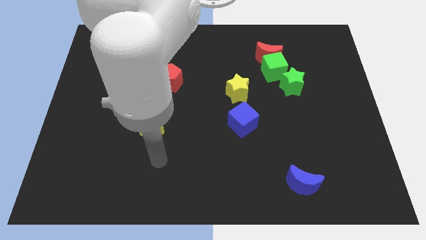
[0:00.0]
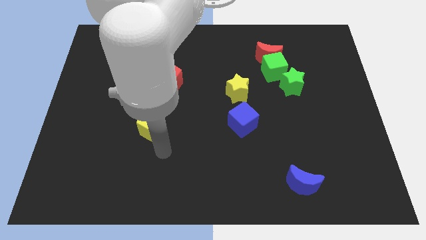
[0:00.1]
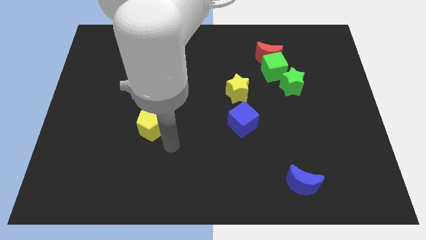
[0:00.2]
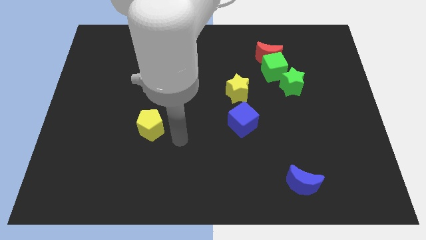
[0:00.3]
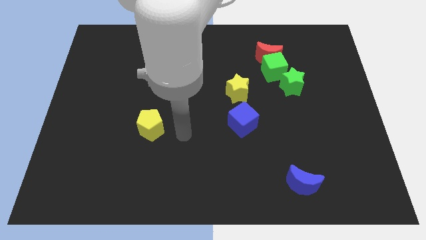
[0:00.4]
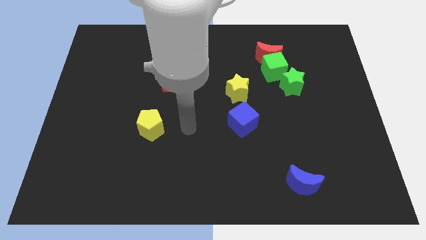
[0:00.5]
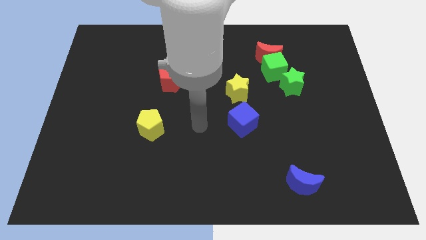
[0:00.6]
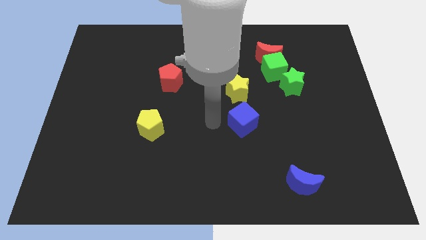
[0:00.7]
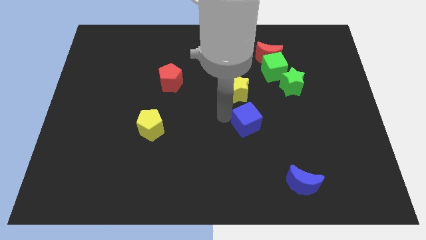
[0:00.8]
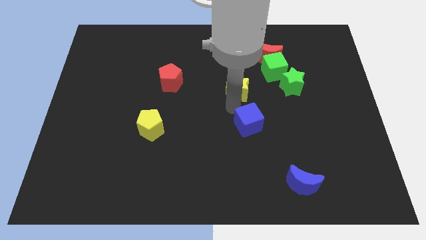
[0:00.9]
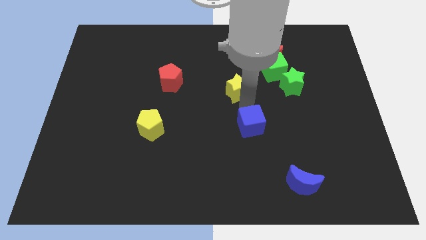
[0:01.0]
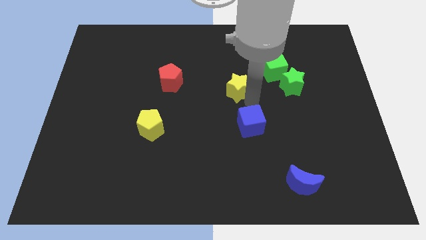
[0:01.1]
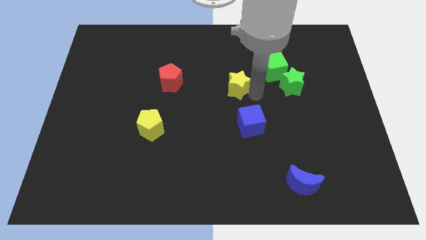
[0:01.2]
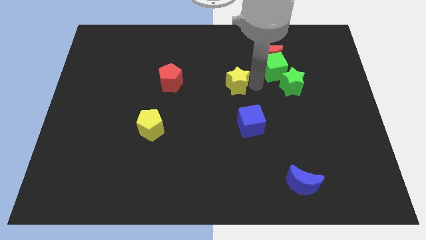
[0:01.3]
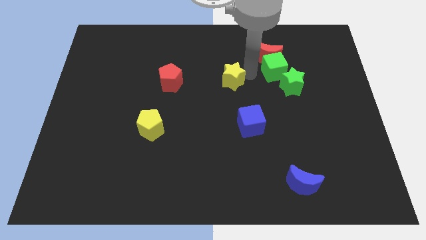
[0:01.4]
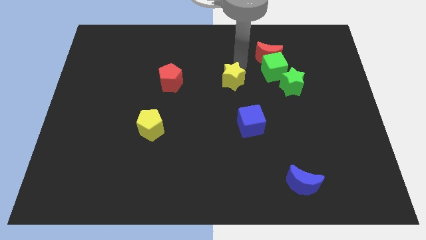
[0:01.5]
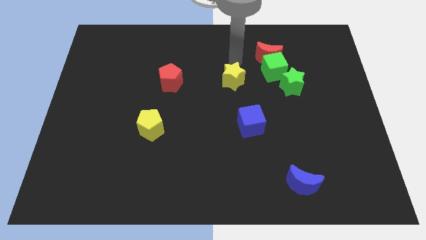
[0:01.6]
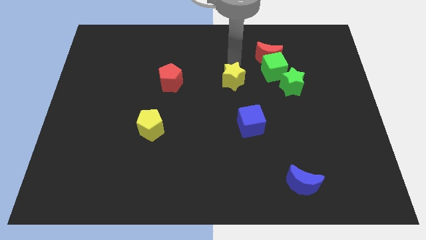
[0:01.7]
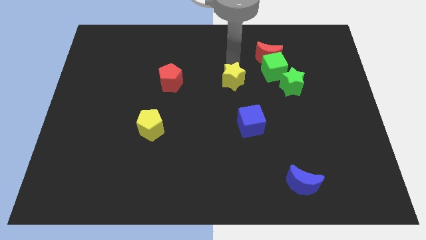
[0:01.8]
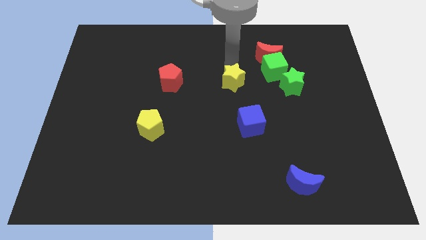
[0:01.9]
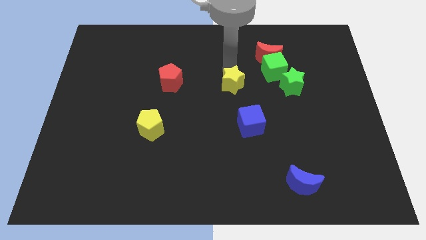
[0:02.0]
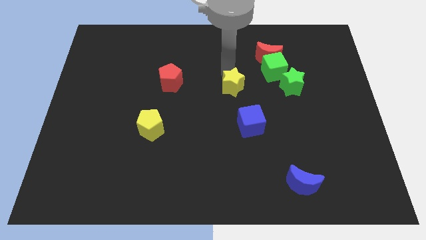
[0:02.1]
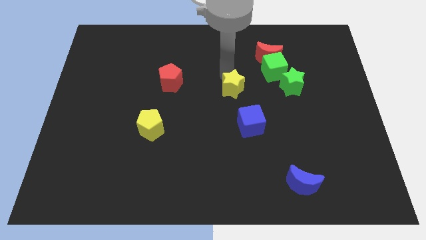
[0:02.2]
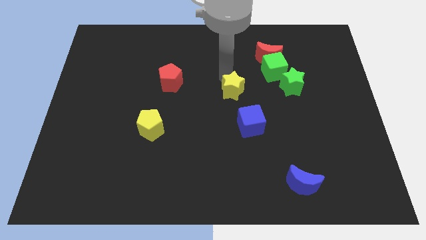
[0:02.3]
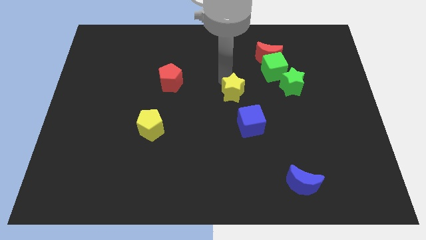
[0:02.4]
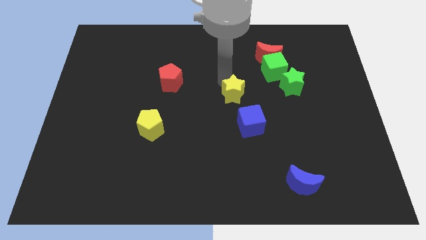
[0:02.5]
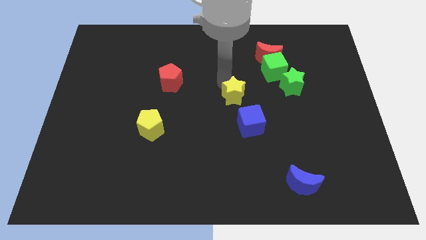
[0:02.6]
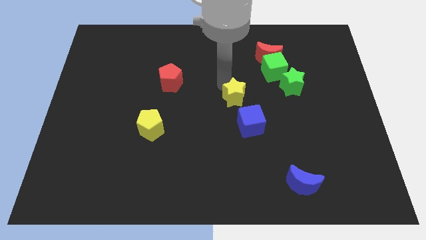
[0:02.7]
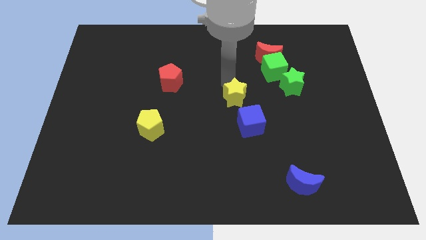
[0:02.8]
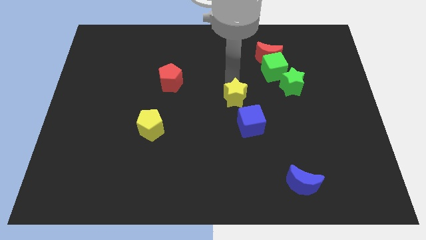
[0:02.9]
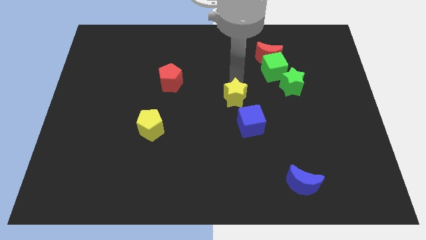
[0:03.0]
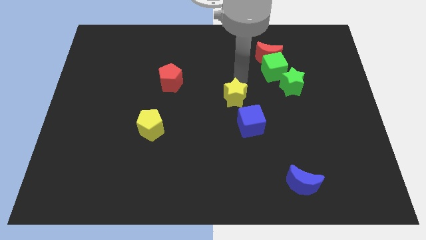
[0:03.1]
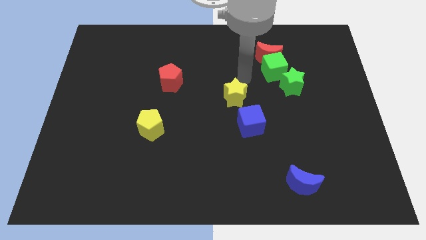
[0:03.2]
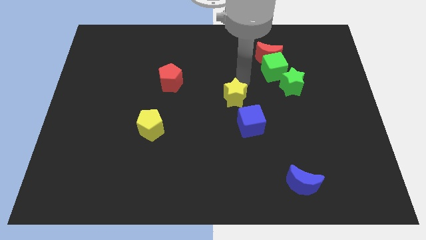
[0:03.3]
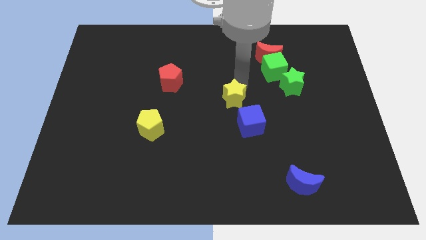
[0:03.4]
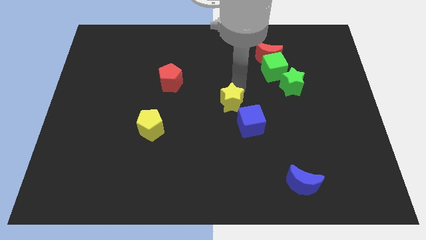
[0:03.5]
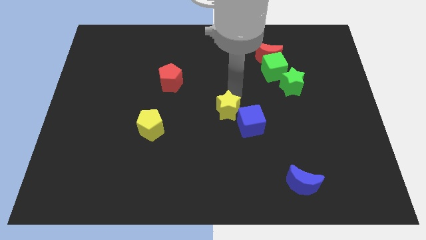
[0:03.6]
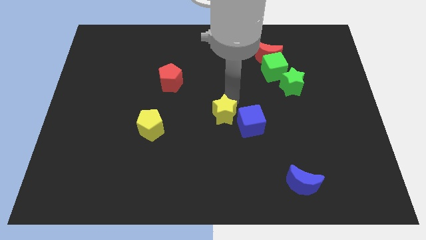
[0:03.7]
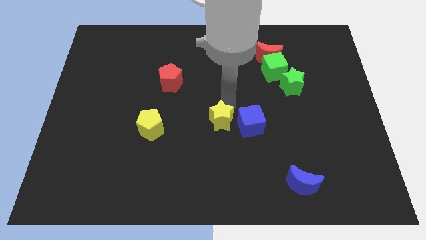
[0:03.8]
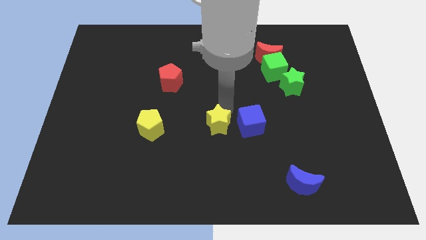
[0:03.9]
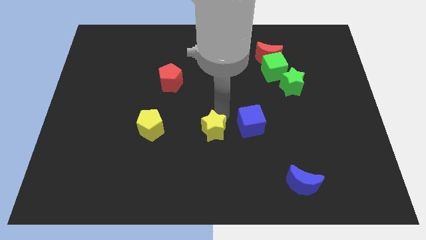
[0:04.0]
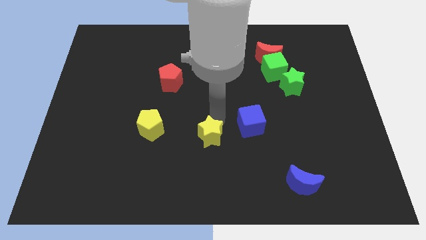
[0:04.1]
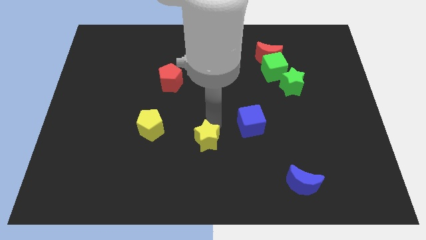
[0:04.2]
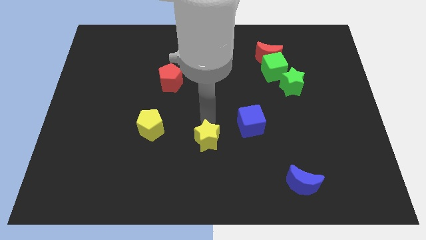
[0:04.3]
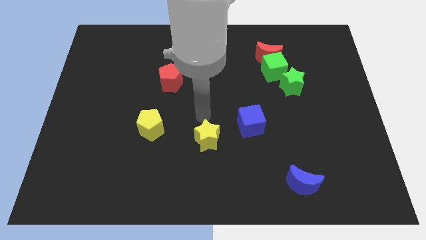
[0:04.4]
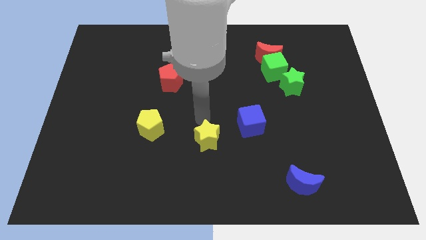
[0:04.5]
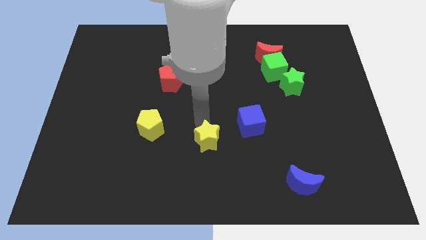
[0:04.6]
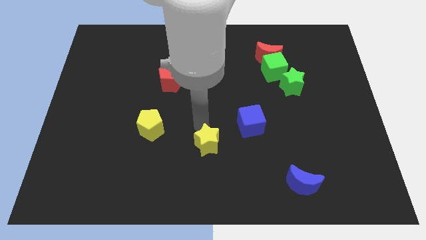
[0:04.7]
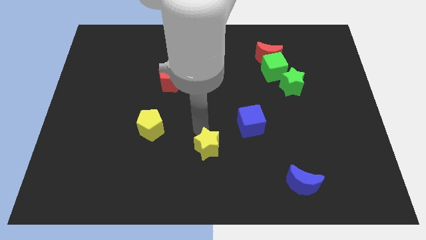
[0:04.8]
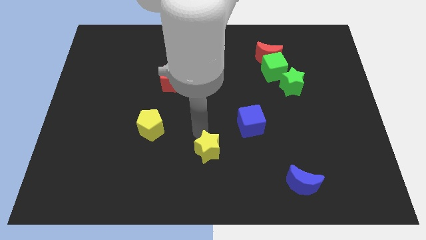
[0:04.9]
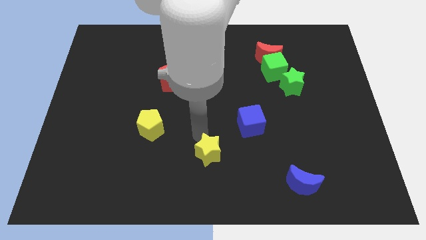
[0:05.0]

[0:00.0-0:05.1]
put the yellow star to the bottom

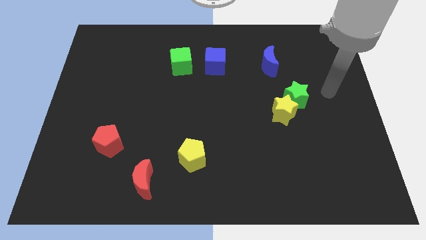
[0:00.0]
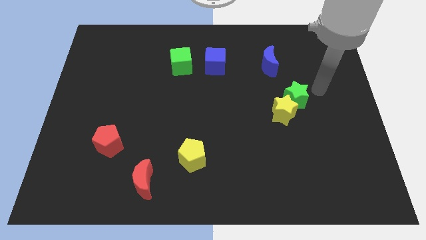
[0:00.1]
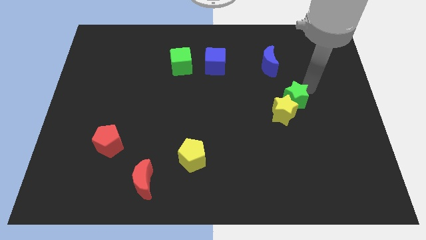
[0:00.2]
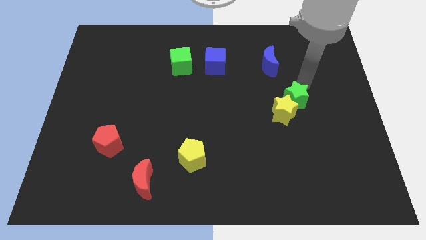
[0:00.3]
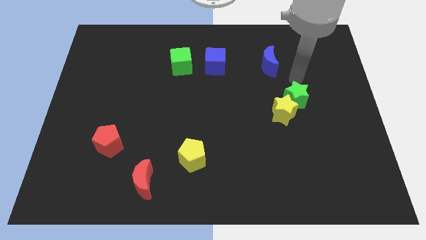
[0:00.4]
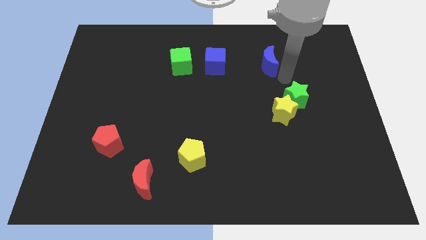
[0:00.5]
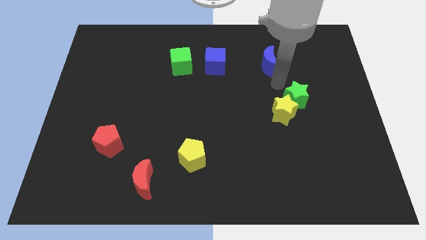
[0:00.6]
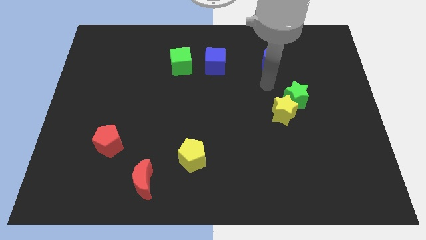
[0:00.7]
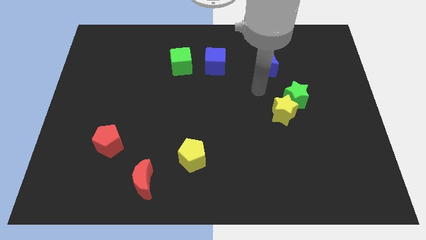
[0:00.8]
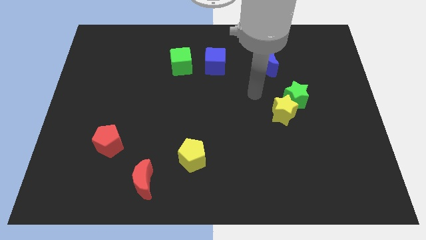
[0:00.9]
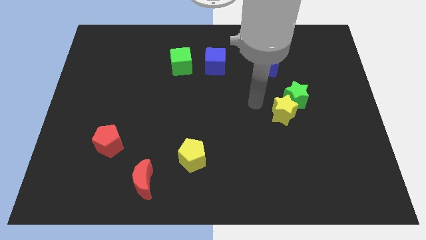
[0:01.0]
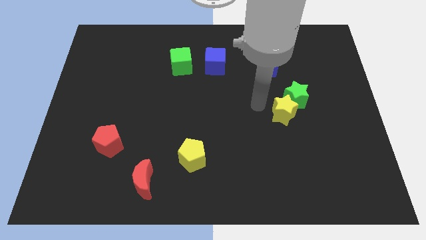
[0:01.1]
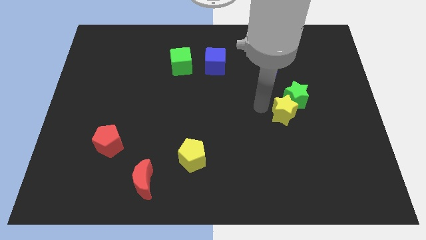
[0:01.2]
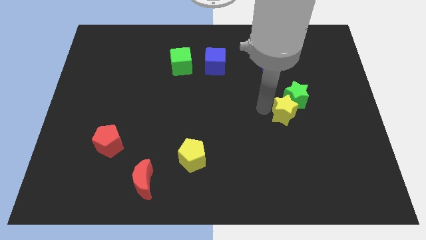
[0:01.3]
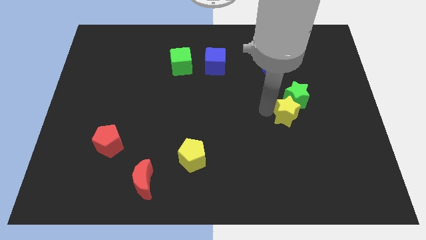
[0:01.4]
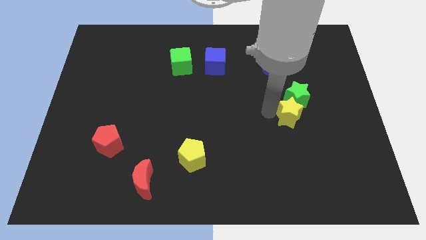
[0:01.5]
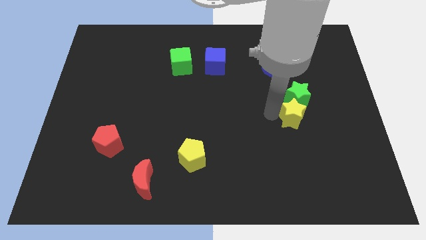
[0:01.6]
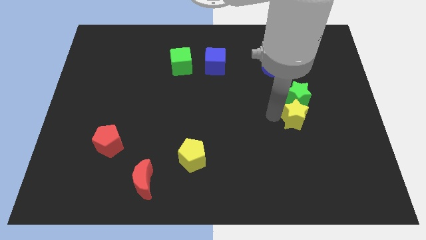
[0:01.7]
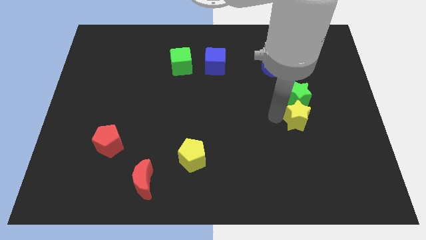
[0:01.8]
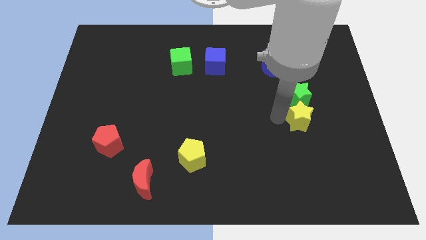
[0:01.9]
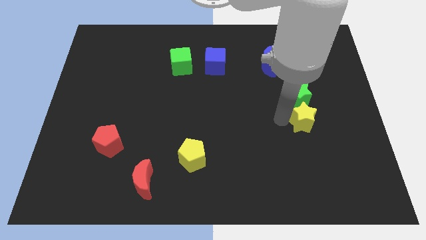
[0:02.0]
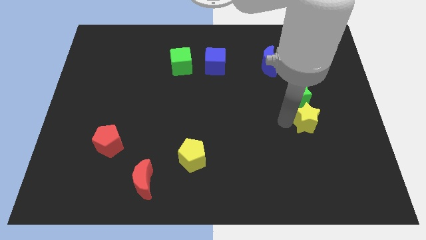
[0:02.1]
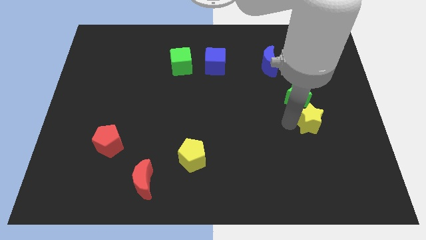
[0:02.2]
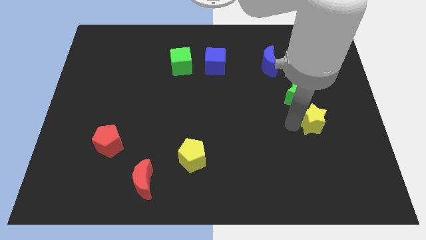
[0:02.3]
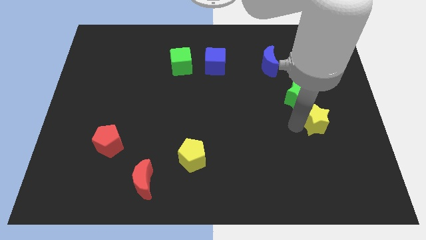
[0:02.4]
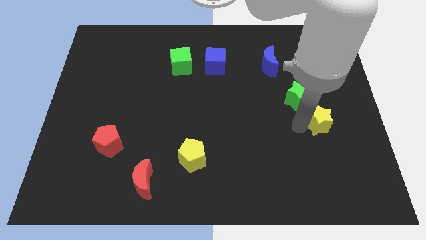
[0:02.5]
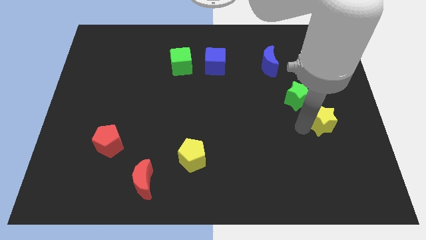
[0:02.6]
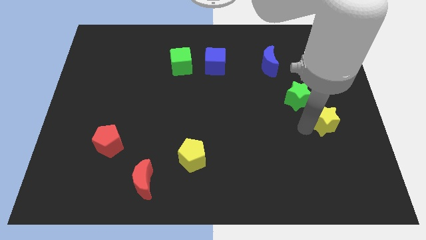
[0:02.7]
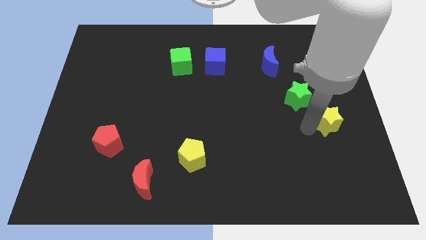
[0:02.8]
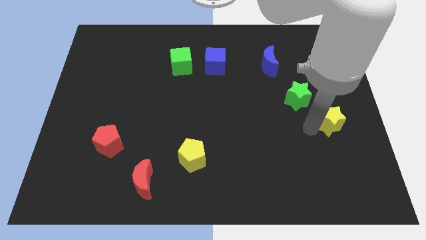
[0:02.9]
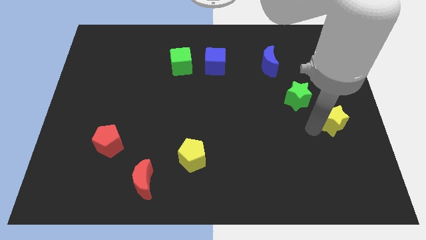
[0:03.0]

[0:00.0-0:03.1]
put the yellow star to the center right
